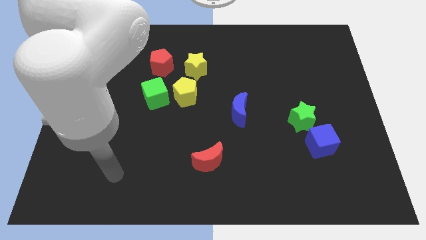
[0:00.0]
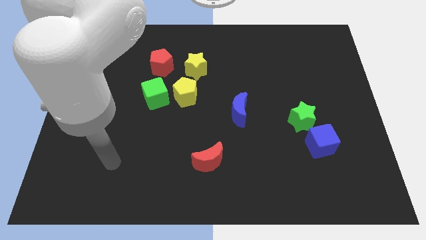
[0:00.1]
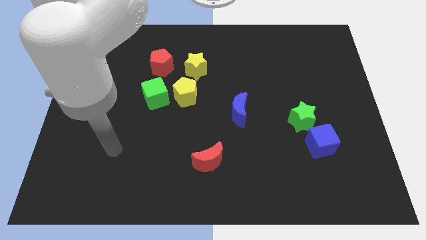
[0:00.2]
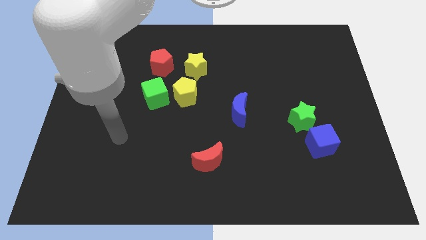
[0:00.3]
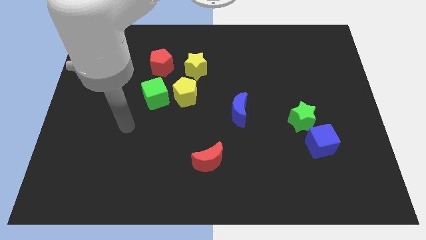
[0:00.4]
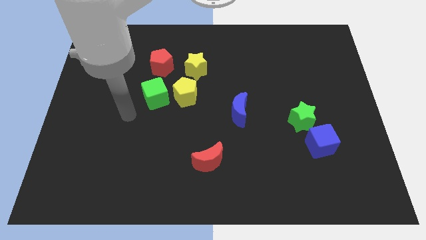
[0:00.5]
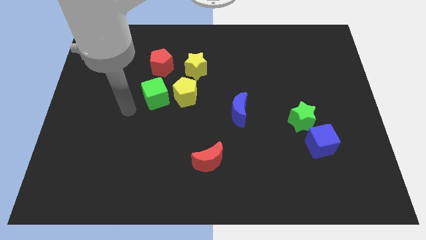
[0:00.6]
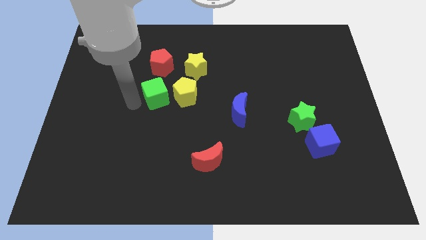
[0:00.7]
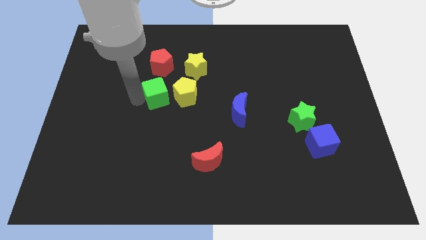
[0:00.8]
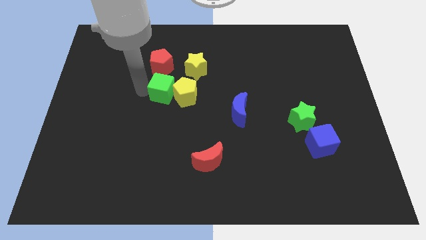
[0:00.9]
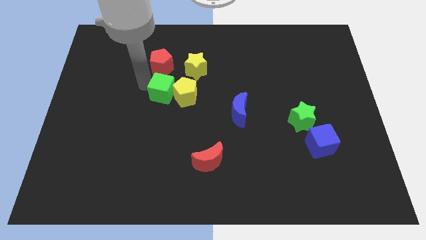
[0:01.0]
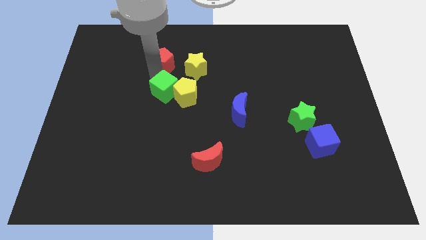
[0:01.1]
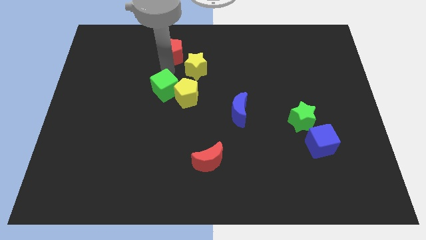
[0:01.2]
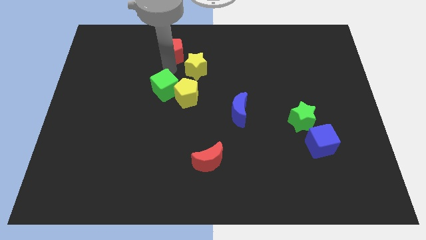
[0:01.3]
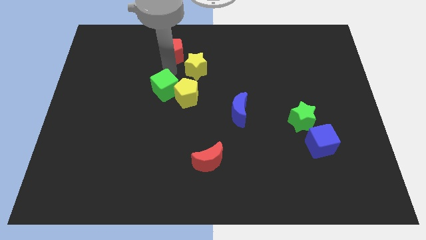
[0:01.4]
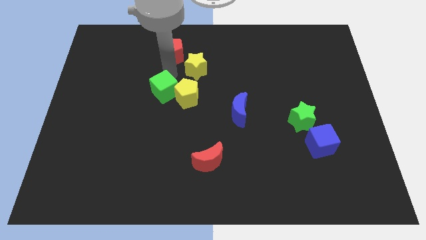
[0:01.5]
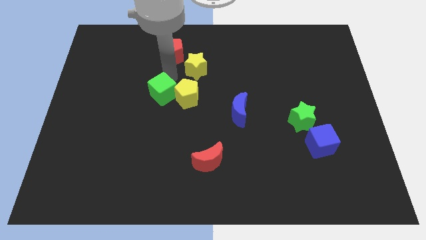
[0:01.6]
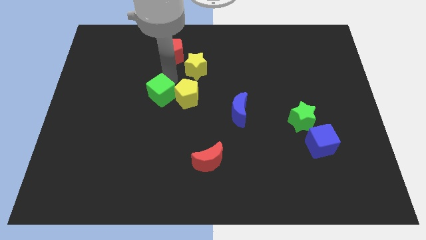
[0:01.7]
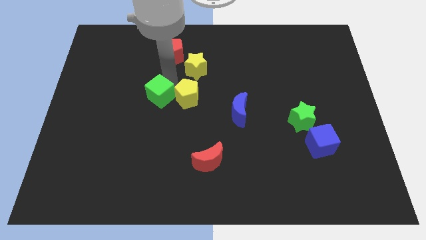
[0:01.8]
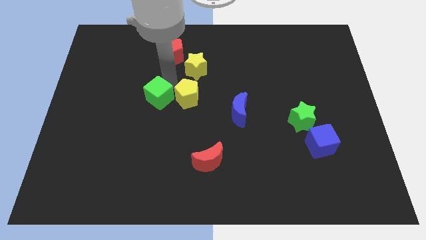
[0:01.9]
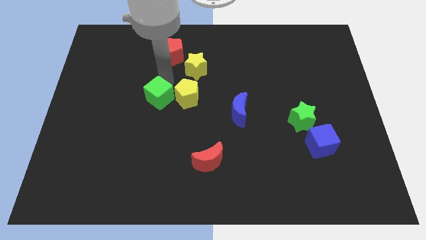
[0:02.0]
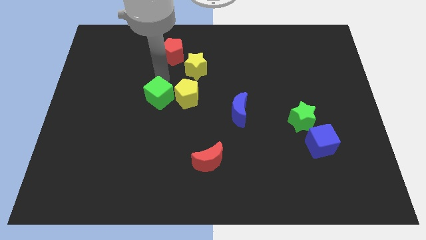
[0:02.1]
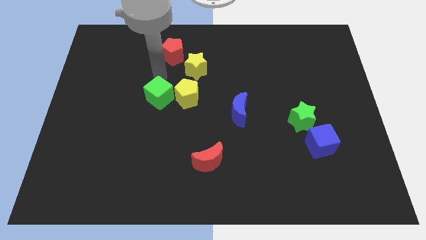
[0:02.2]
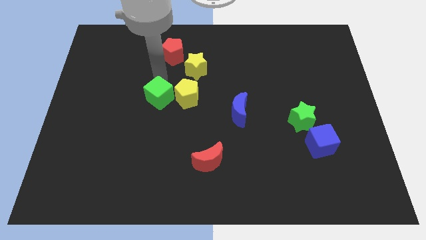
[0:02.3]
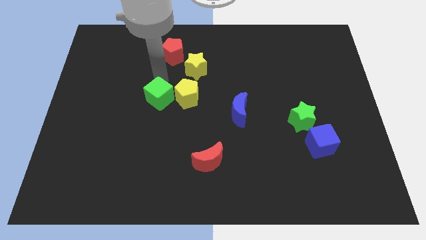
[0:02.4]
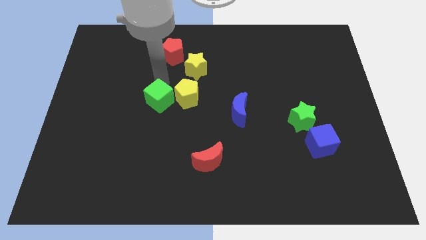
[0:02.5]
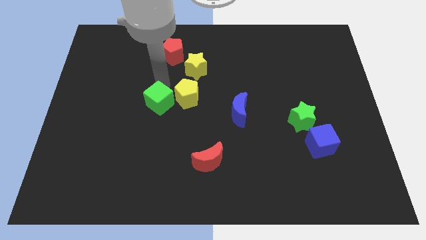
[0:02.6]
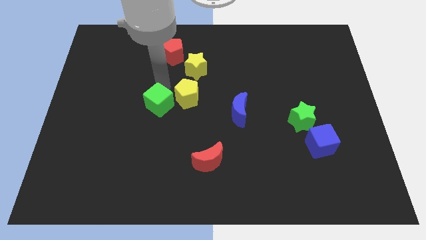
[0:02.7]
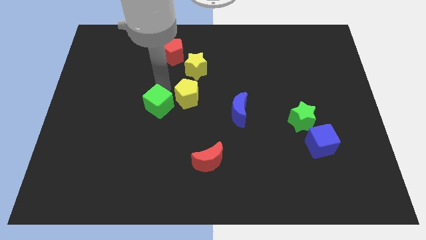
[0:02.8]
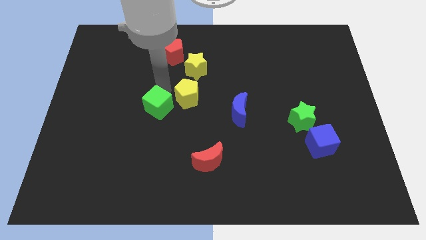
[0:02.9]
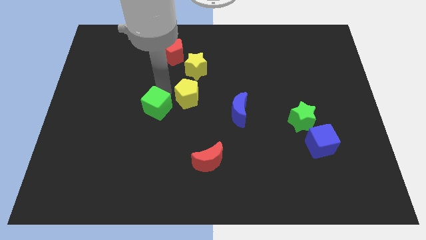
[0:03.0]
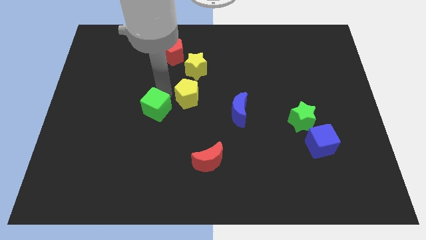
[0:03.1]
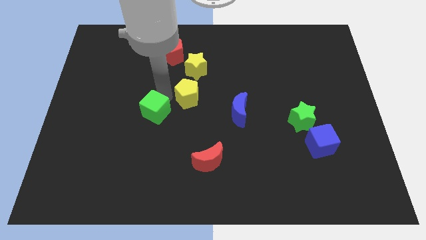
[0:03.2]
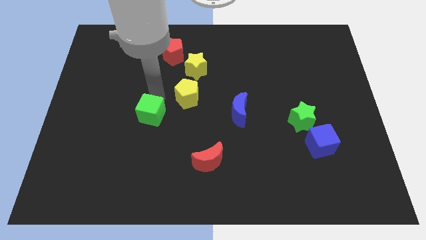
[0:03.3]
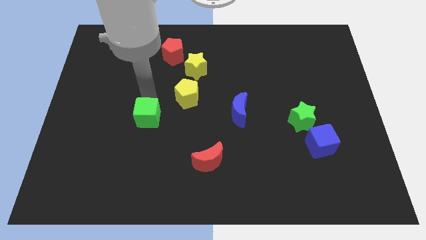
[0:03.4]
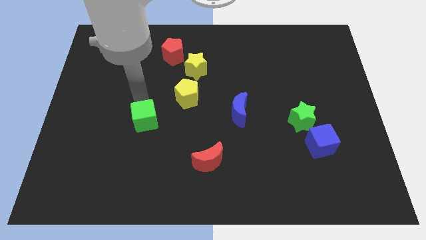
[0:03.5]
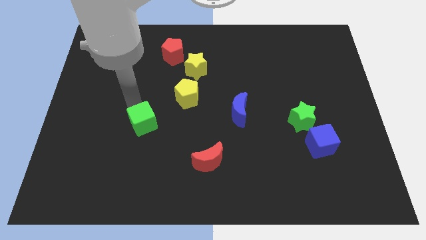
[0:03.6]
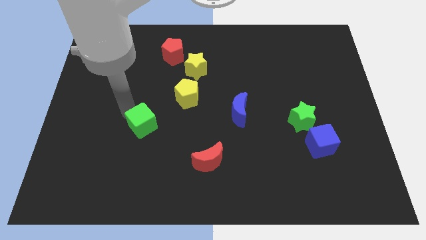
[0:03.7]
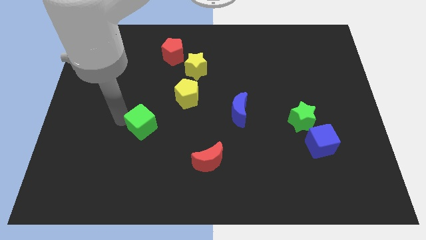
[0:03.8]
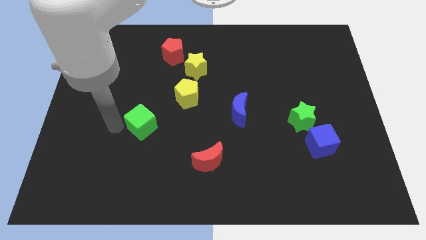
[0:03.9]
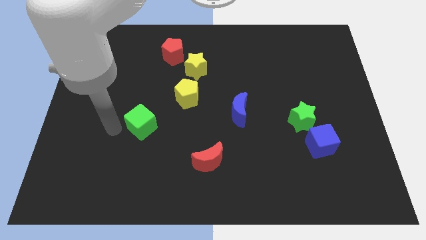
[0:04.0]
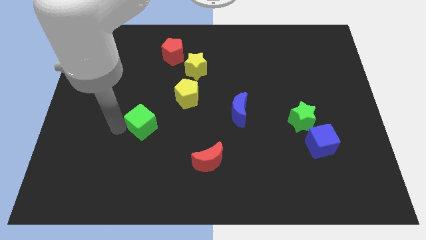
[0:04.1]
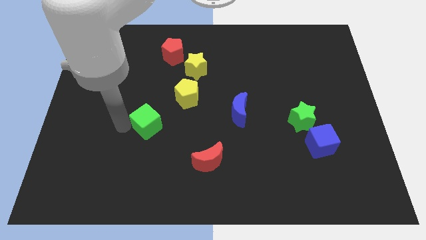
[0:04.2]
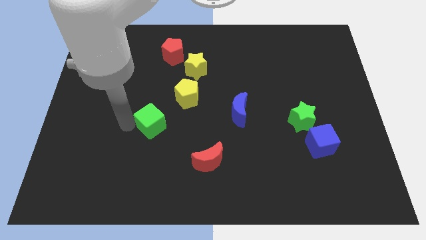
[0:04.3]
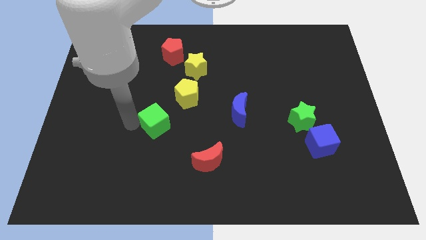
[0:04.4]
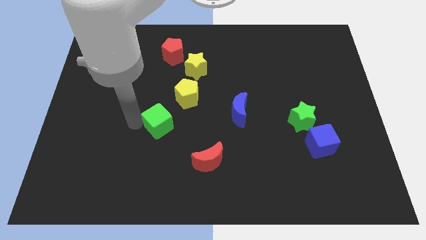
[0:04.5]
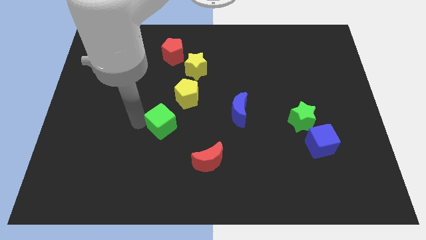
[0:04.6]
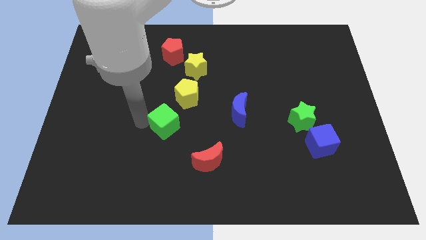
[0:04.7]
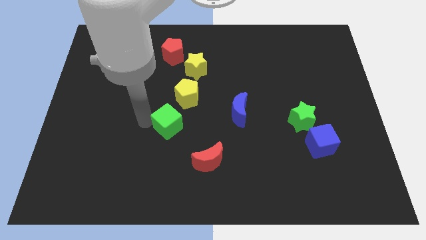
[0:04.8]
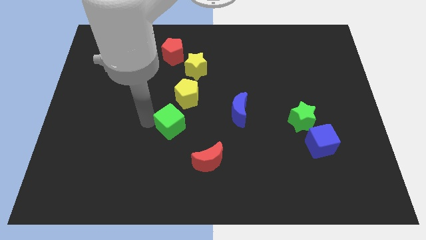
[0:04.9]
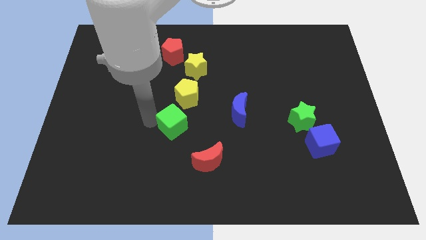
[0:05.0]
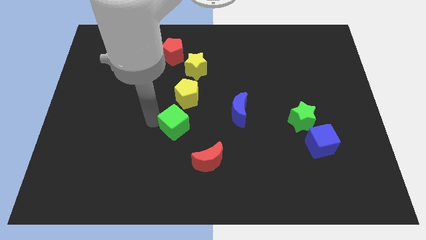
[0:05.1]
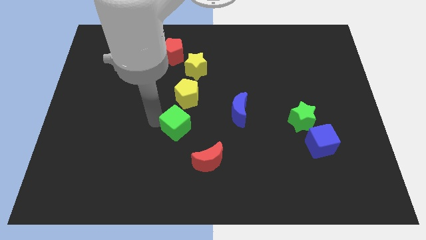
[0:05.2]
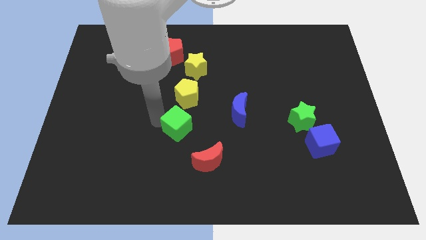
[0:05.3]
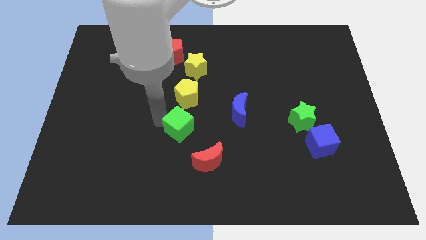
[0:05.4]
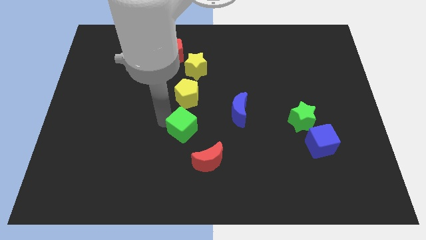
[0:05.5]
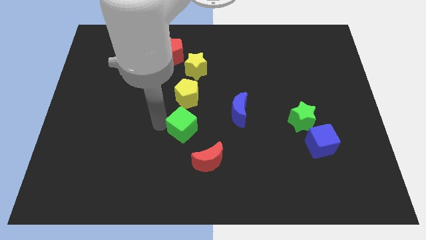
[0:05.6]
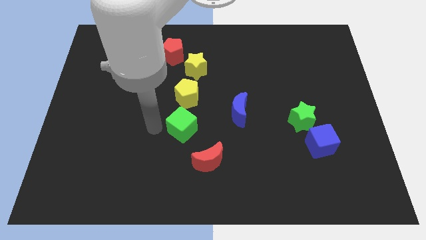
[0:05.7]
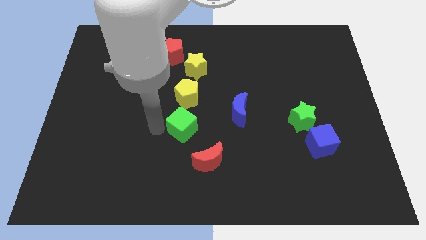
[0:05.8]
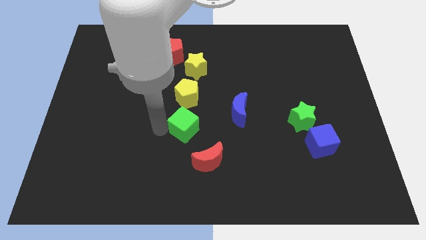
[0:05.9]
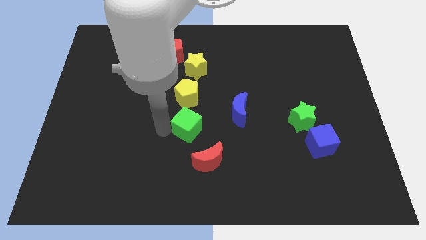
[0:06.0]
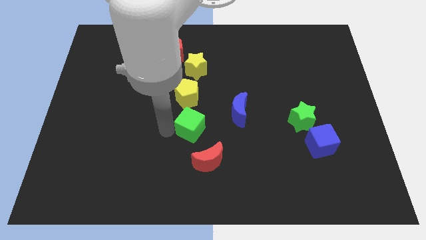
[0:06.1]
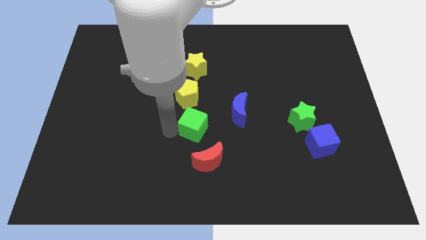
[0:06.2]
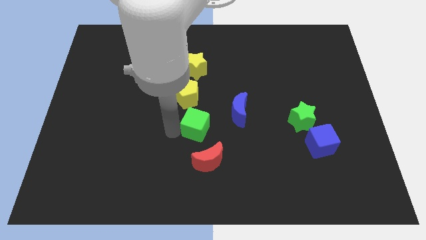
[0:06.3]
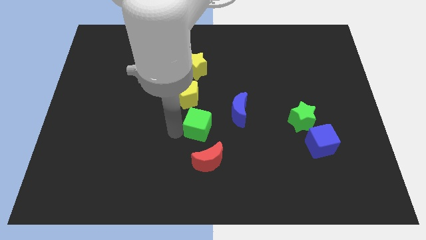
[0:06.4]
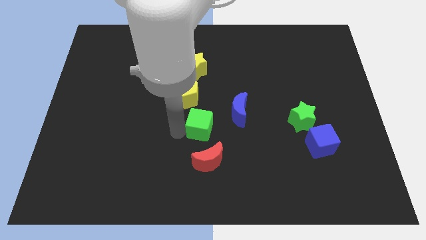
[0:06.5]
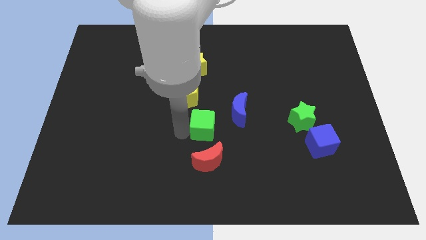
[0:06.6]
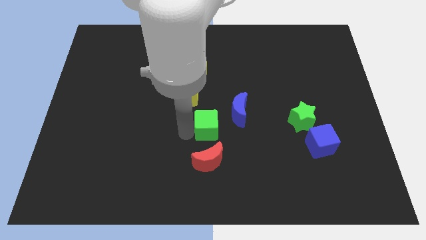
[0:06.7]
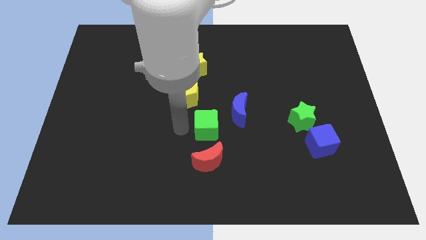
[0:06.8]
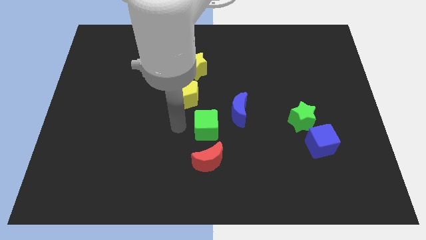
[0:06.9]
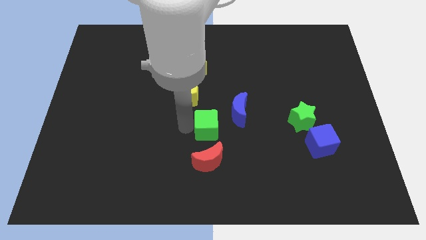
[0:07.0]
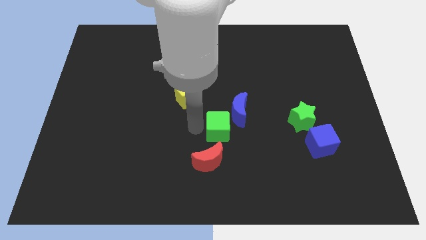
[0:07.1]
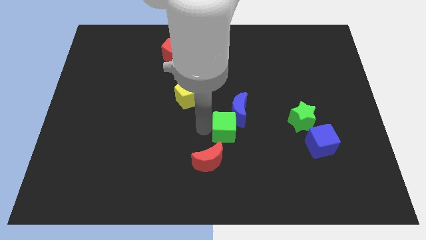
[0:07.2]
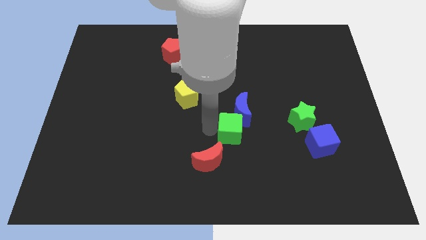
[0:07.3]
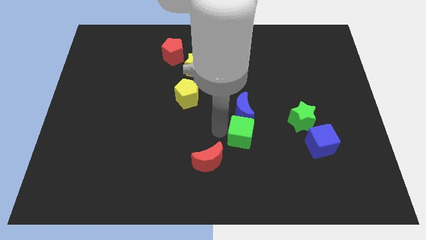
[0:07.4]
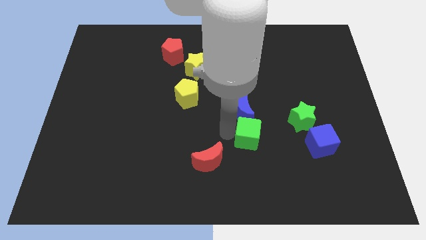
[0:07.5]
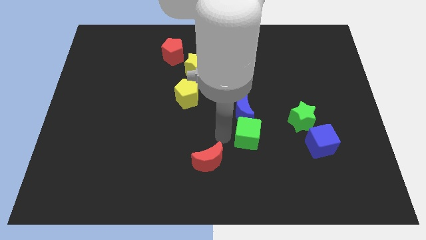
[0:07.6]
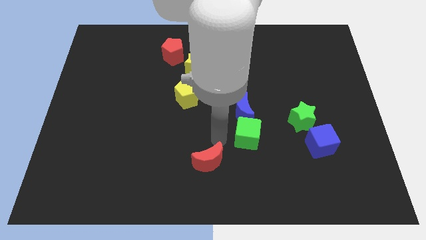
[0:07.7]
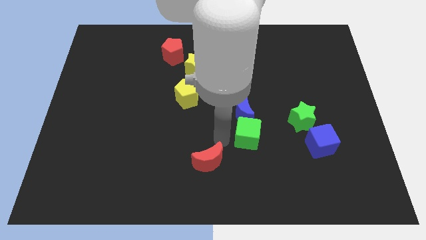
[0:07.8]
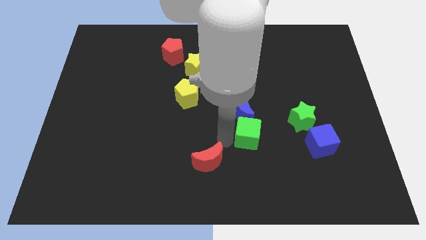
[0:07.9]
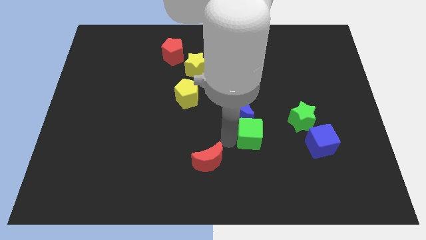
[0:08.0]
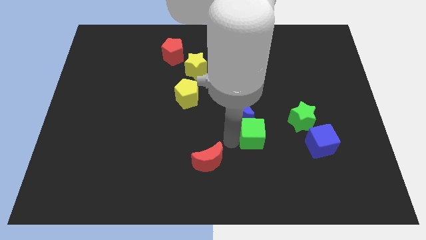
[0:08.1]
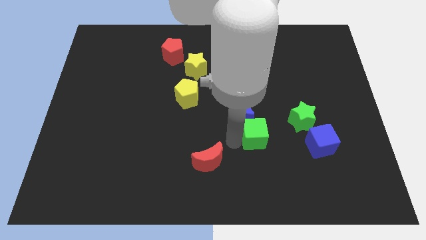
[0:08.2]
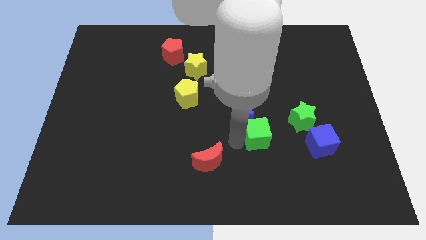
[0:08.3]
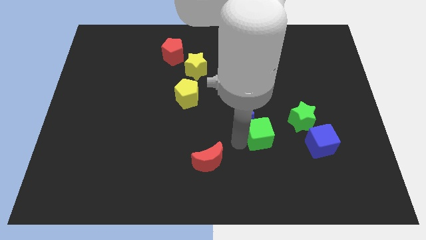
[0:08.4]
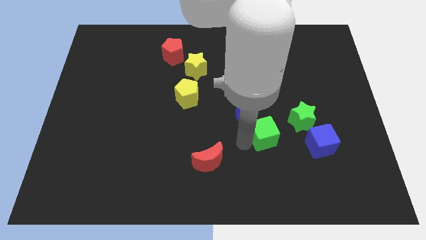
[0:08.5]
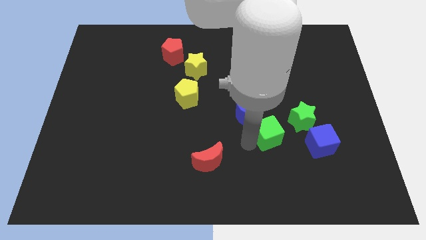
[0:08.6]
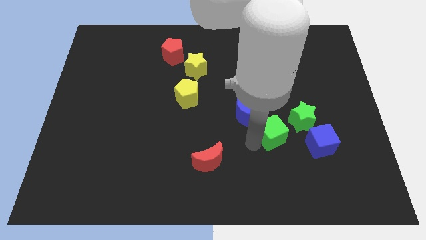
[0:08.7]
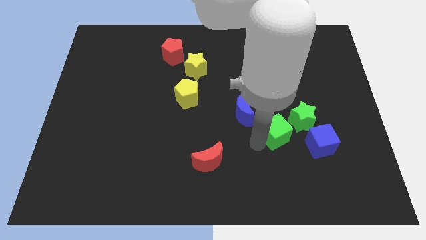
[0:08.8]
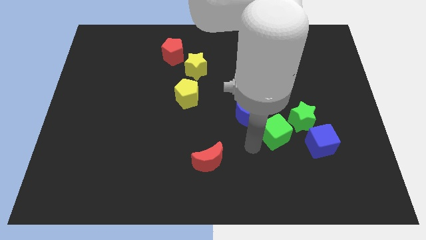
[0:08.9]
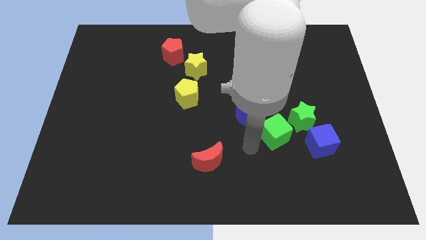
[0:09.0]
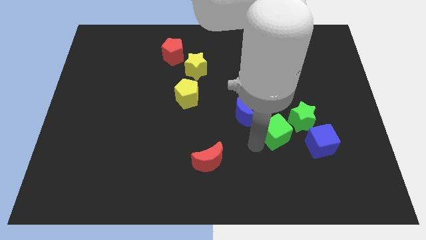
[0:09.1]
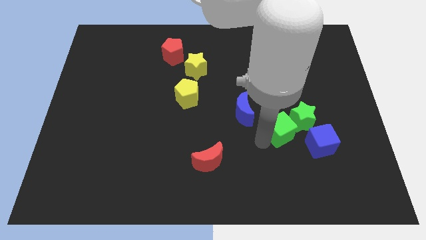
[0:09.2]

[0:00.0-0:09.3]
move the green cube to the green star
